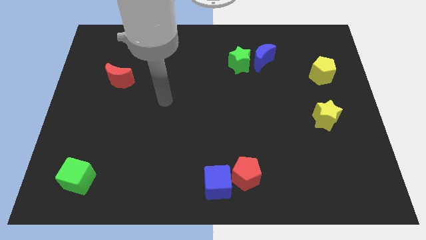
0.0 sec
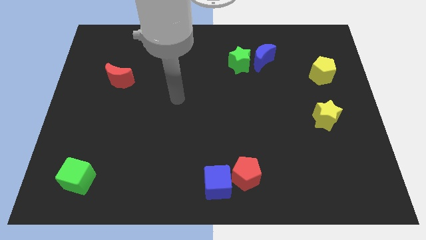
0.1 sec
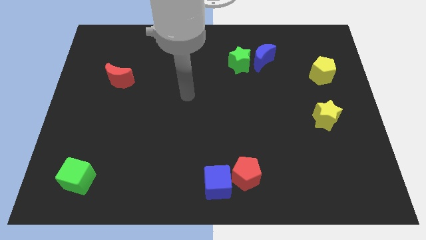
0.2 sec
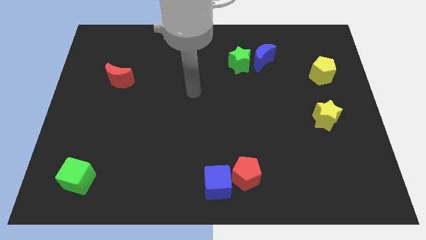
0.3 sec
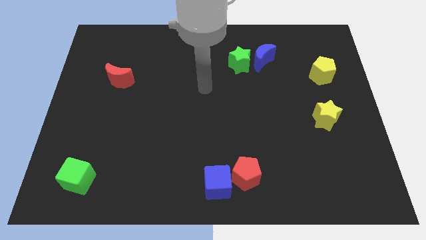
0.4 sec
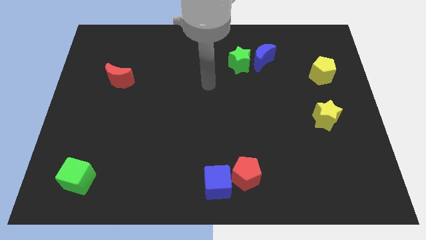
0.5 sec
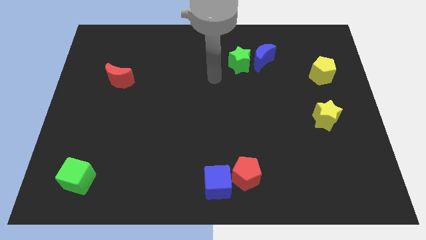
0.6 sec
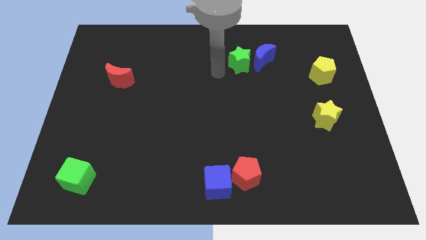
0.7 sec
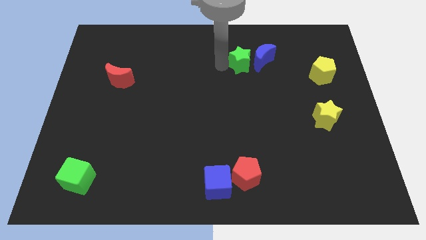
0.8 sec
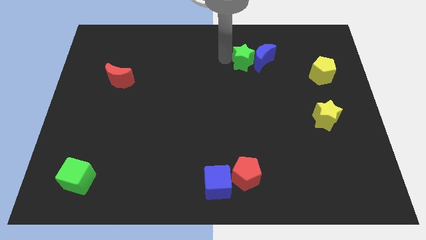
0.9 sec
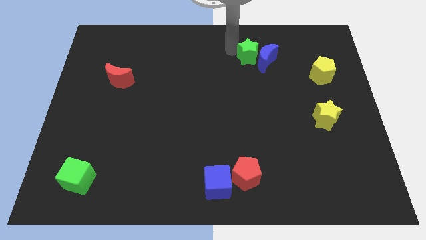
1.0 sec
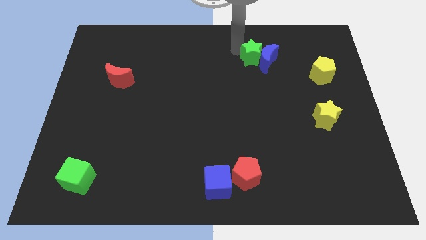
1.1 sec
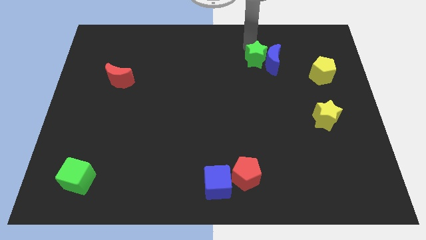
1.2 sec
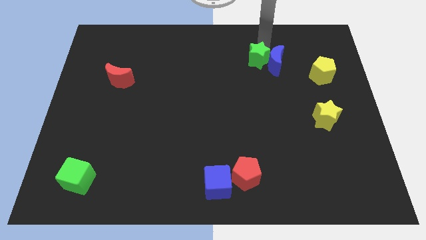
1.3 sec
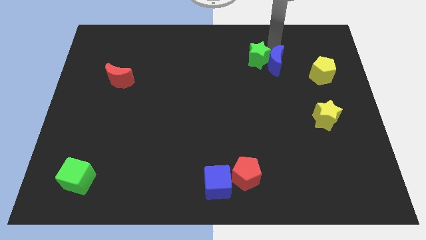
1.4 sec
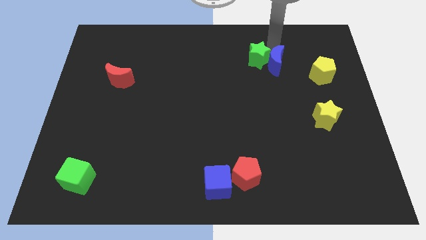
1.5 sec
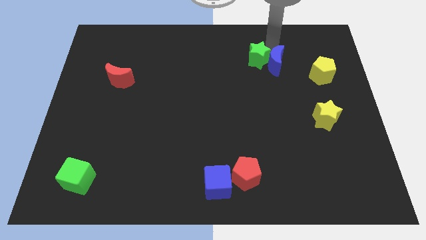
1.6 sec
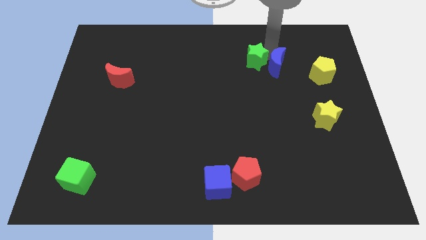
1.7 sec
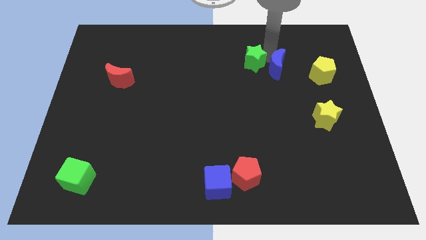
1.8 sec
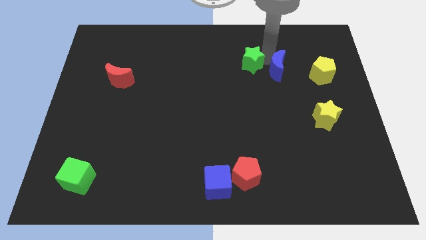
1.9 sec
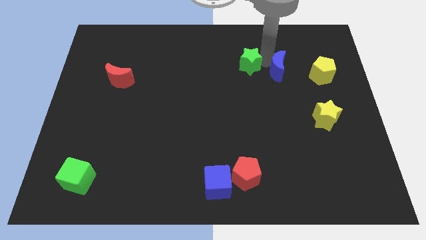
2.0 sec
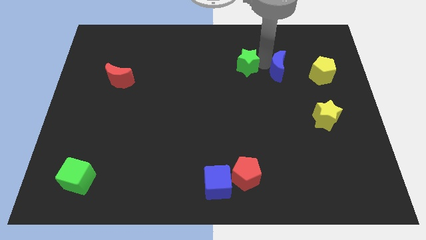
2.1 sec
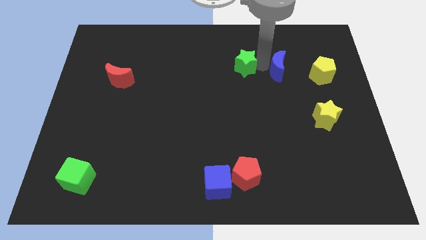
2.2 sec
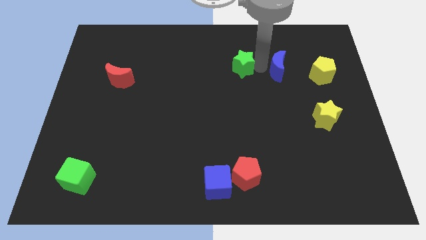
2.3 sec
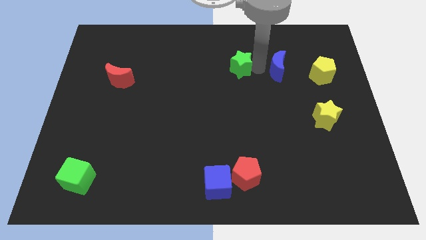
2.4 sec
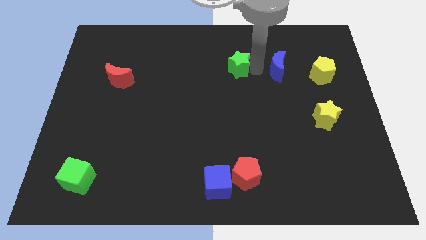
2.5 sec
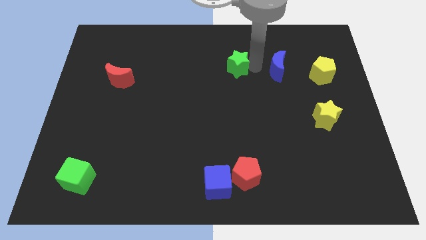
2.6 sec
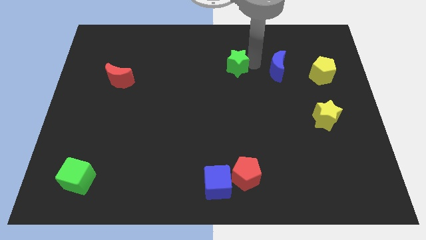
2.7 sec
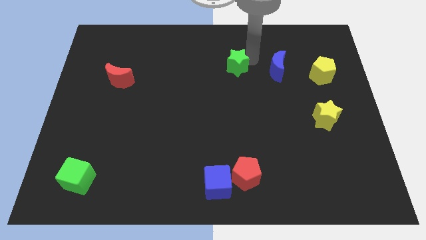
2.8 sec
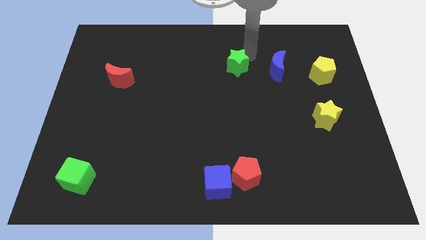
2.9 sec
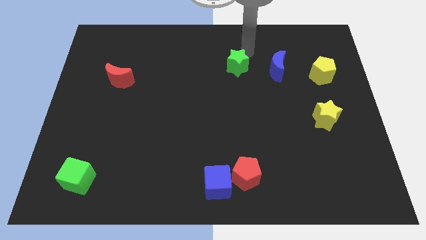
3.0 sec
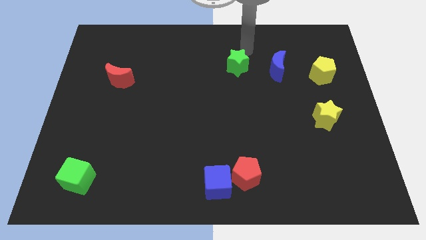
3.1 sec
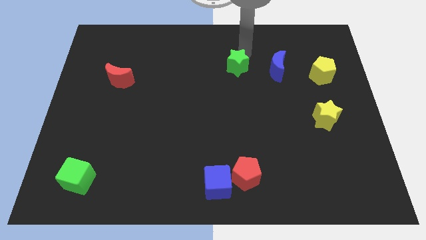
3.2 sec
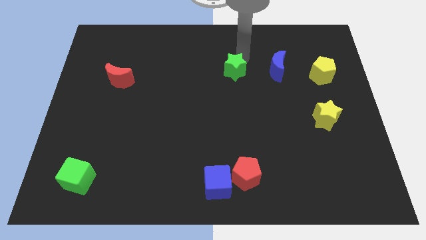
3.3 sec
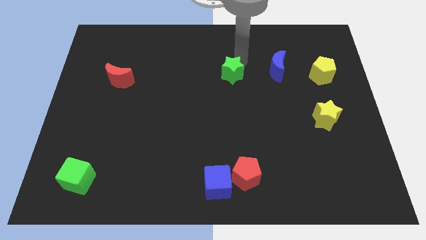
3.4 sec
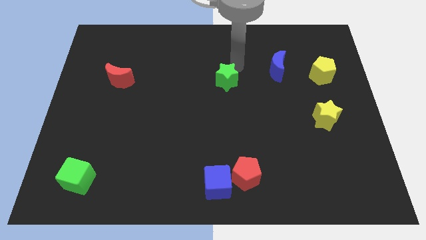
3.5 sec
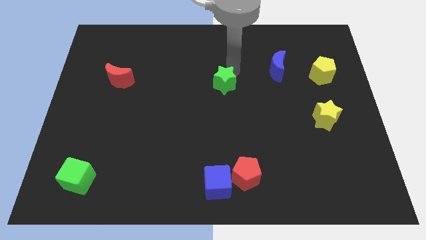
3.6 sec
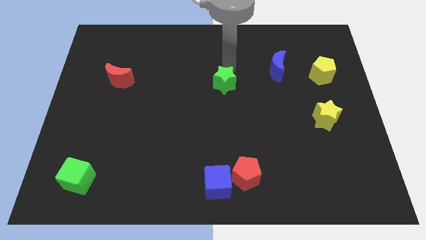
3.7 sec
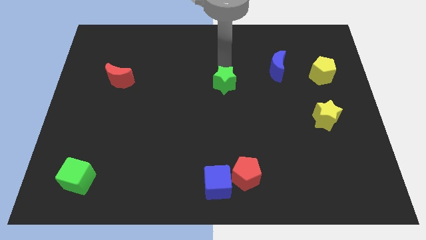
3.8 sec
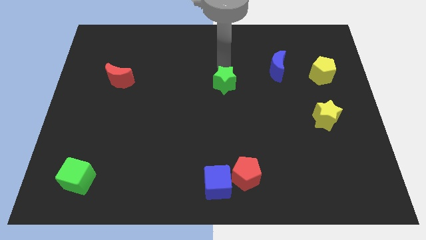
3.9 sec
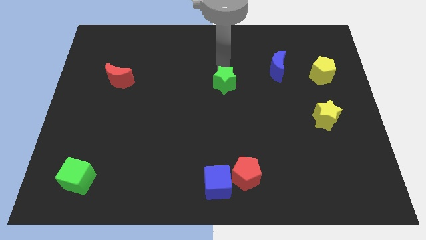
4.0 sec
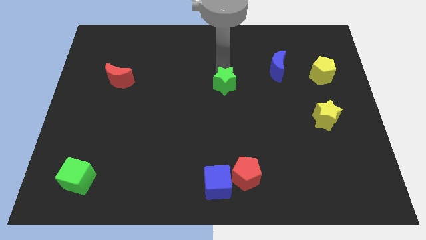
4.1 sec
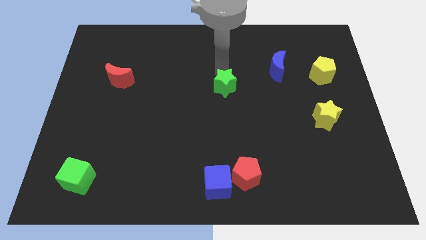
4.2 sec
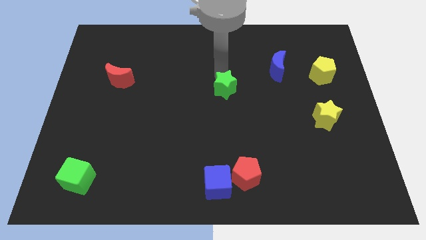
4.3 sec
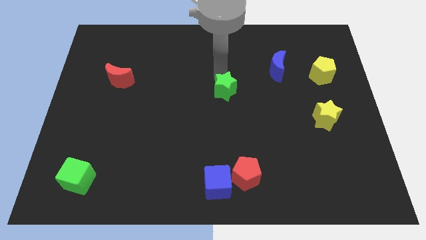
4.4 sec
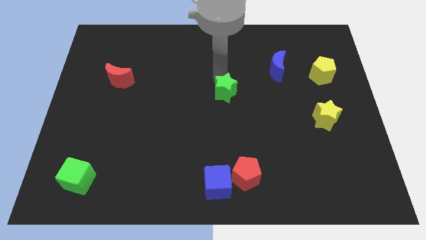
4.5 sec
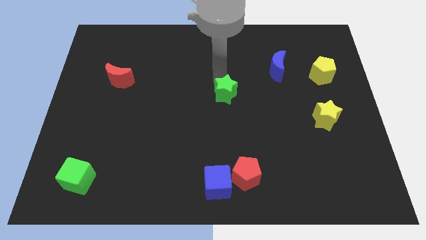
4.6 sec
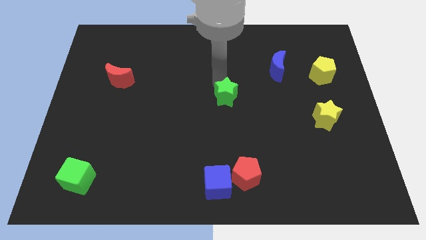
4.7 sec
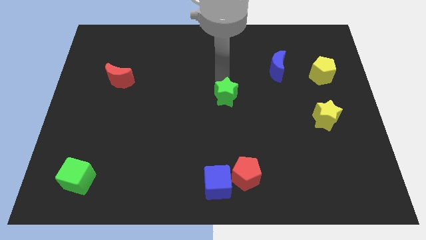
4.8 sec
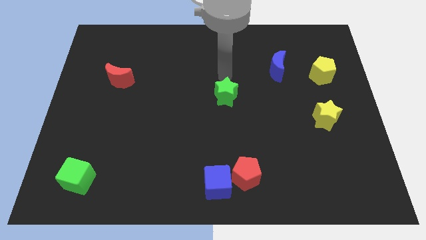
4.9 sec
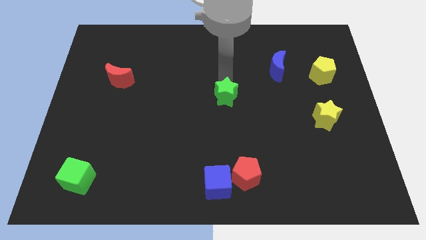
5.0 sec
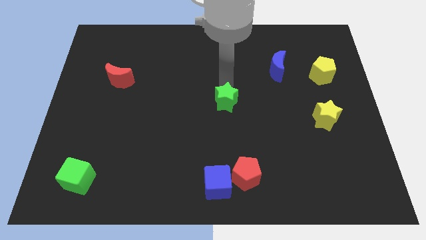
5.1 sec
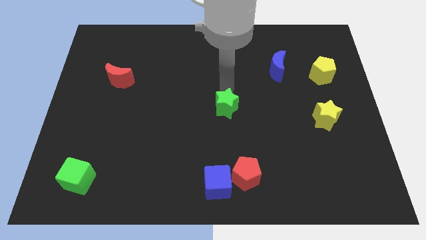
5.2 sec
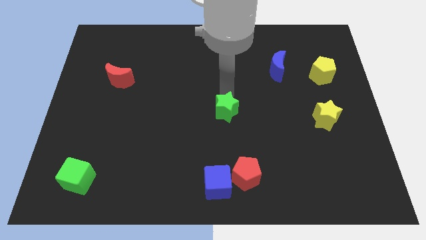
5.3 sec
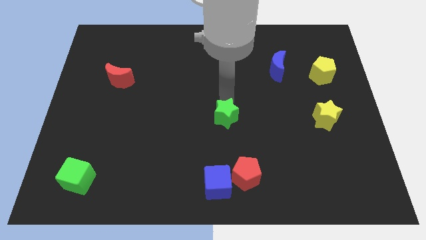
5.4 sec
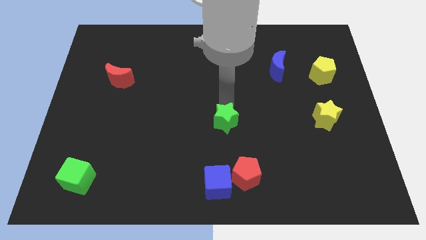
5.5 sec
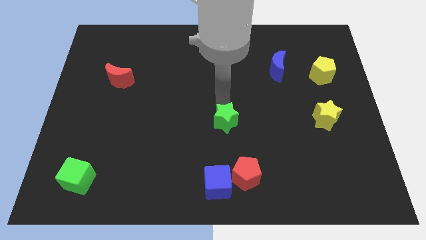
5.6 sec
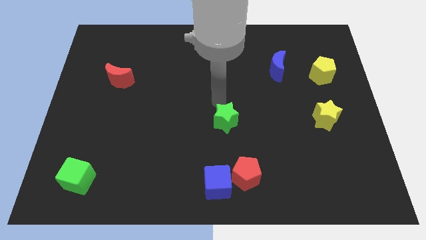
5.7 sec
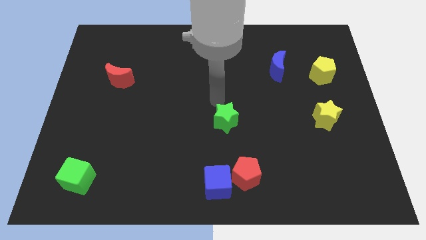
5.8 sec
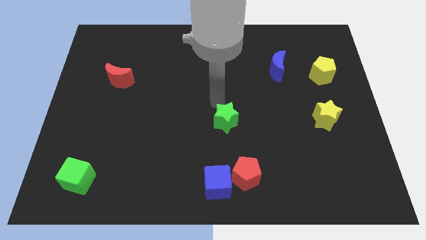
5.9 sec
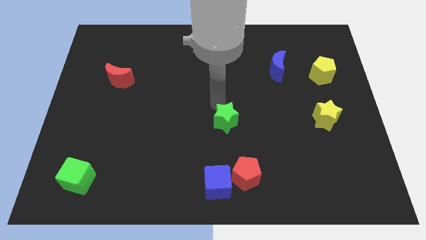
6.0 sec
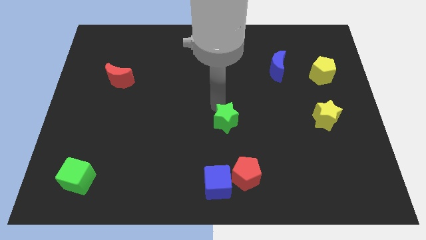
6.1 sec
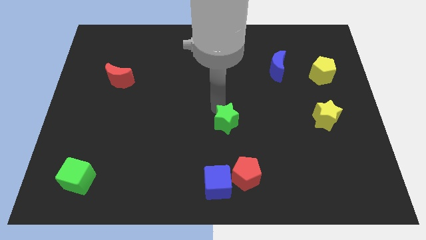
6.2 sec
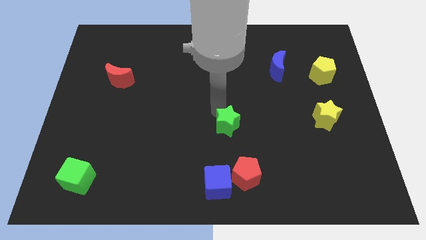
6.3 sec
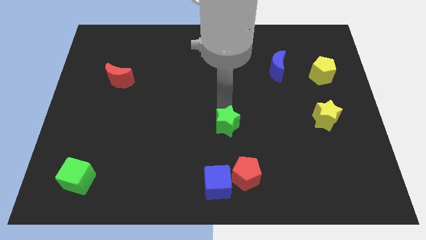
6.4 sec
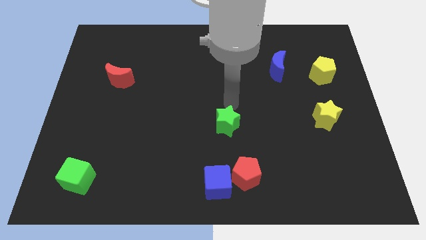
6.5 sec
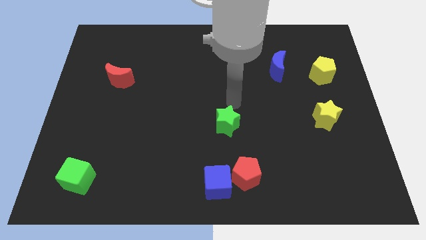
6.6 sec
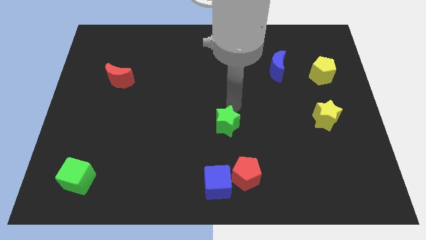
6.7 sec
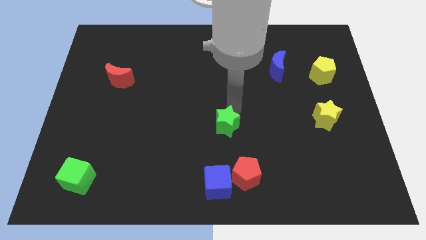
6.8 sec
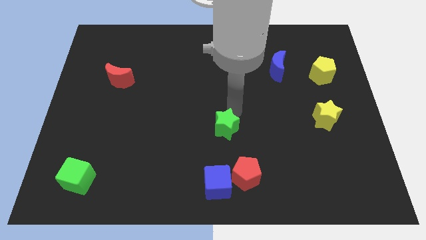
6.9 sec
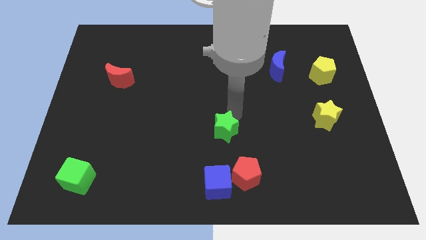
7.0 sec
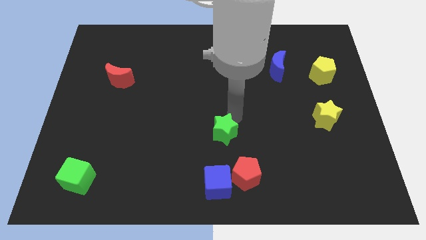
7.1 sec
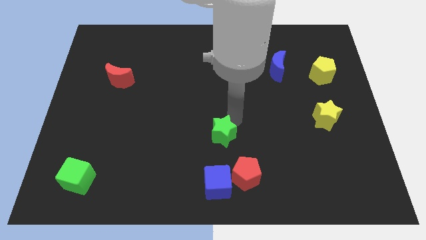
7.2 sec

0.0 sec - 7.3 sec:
slide the green star diagonally up and to the left of the red pentagon
